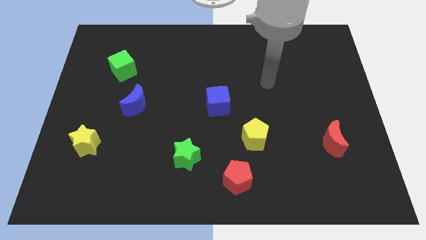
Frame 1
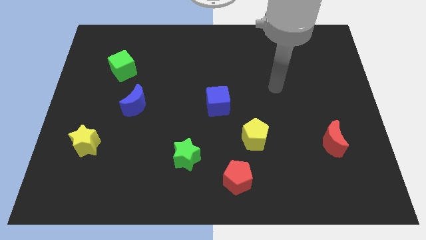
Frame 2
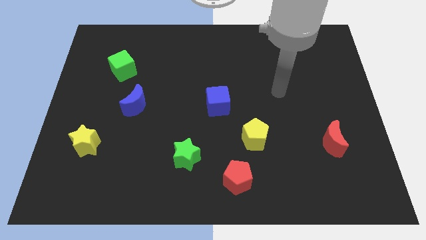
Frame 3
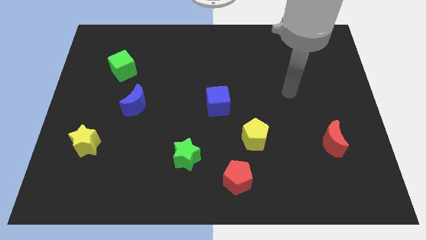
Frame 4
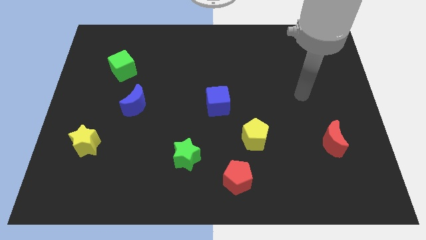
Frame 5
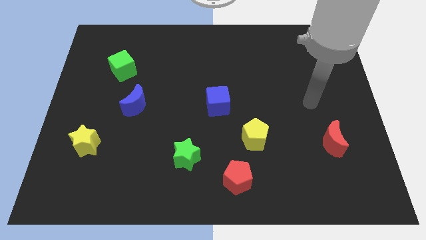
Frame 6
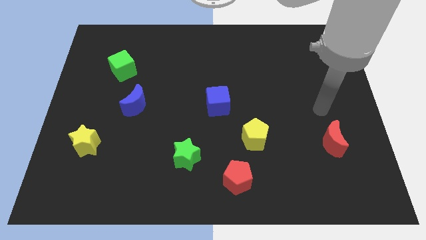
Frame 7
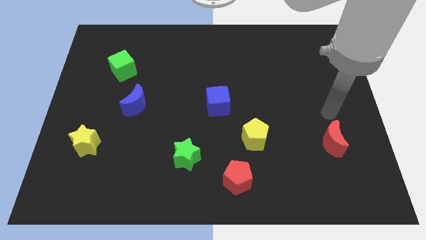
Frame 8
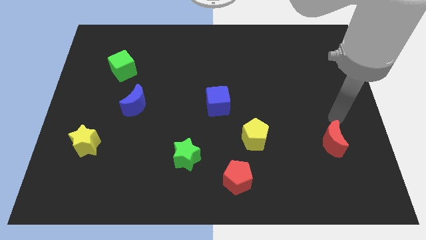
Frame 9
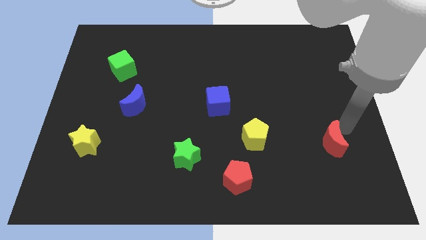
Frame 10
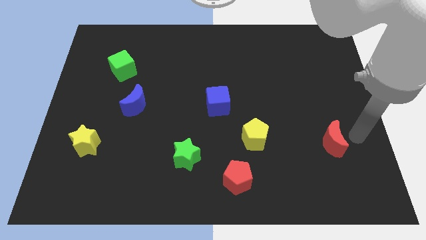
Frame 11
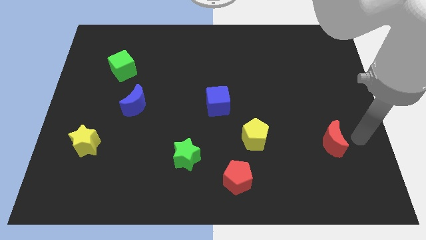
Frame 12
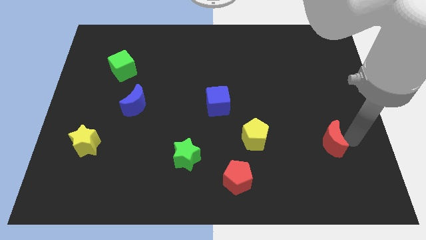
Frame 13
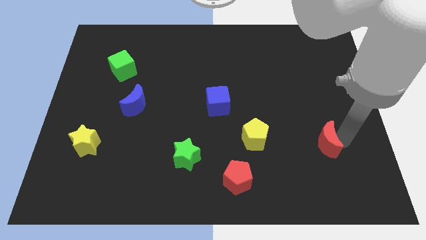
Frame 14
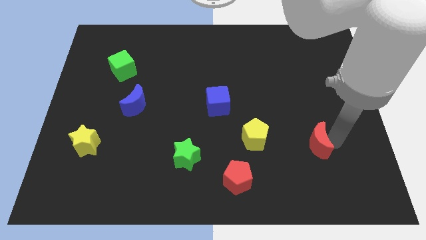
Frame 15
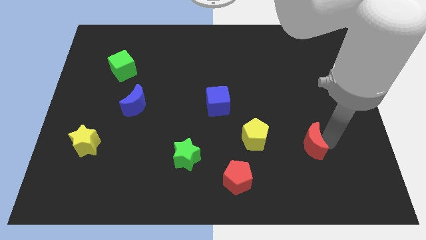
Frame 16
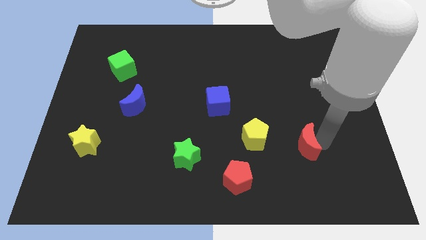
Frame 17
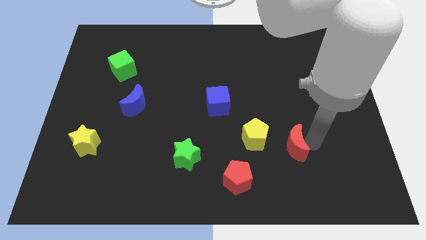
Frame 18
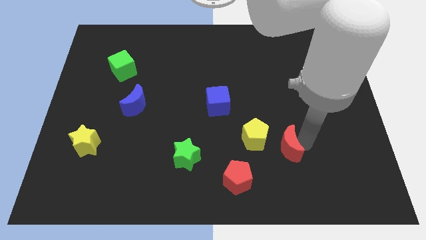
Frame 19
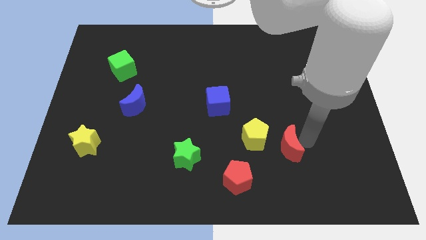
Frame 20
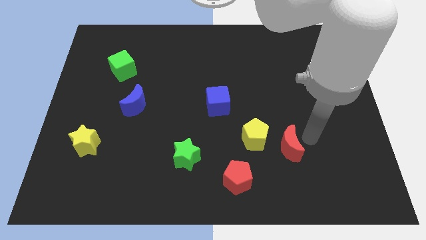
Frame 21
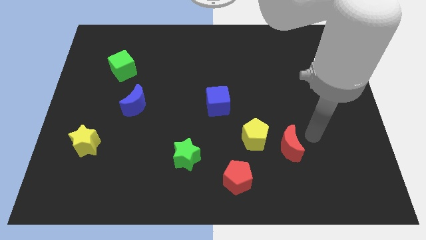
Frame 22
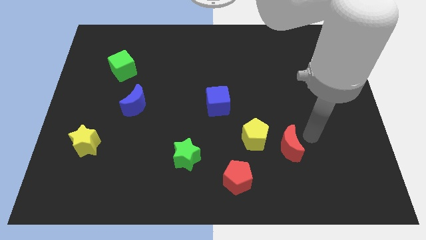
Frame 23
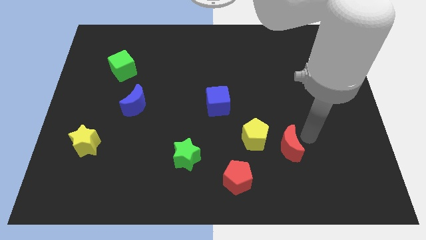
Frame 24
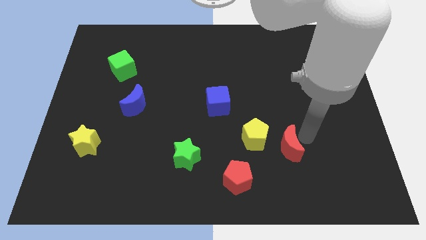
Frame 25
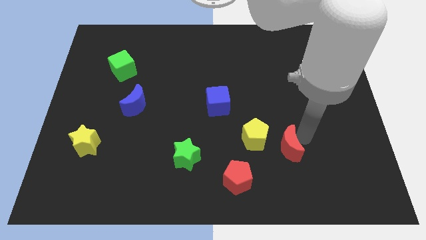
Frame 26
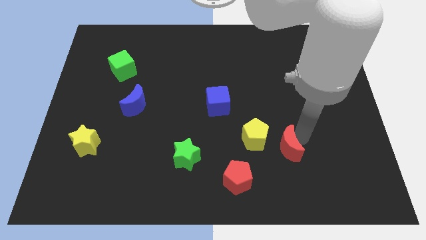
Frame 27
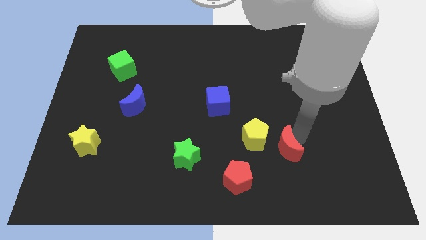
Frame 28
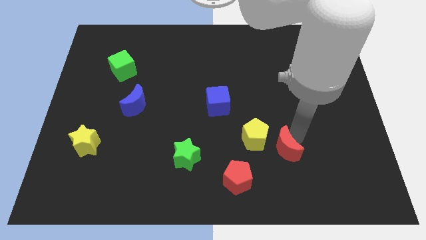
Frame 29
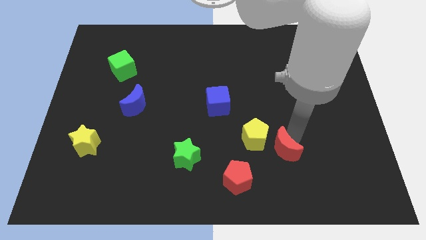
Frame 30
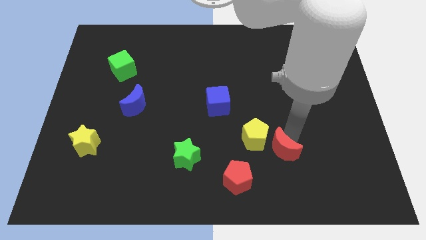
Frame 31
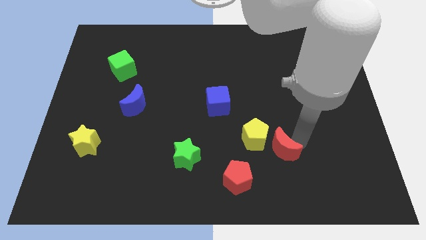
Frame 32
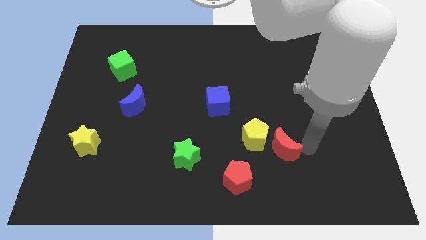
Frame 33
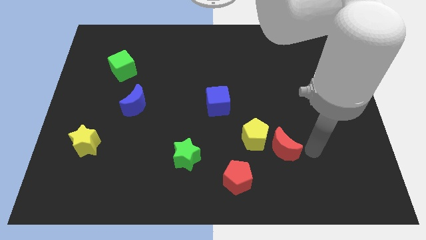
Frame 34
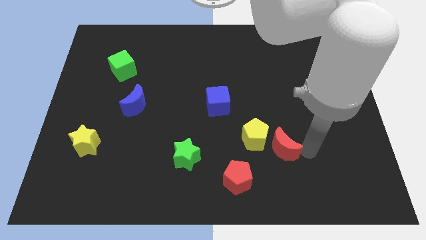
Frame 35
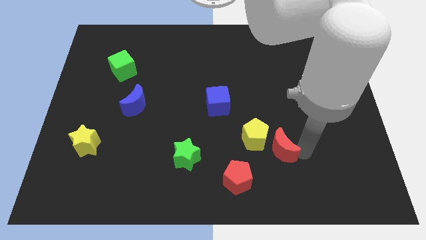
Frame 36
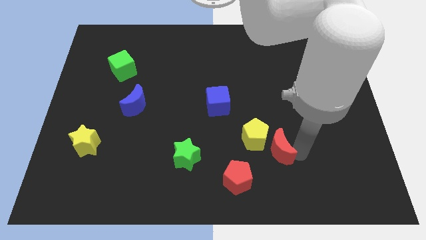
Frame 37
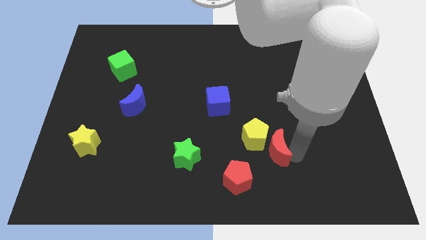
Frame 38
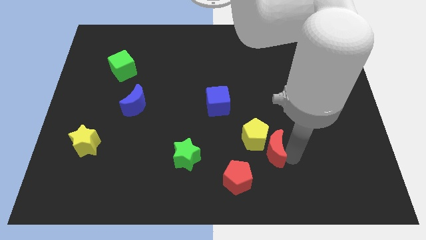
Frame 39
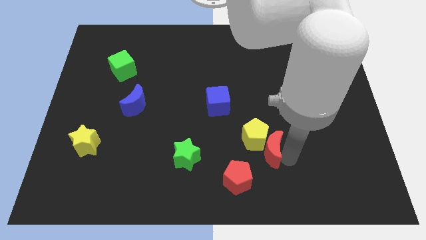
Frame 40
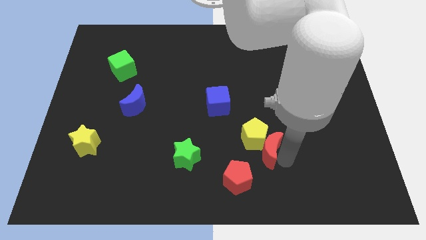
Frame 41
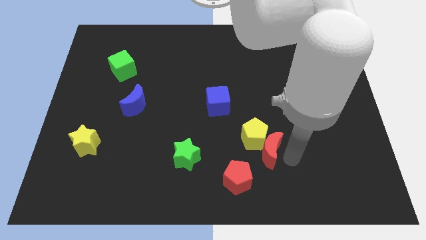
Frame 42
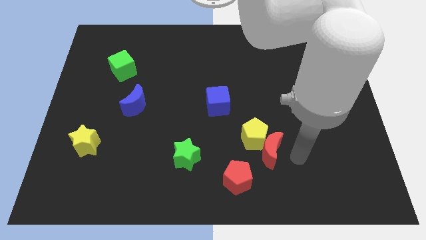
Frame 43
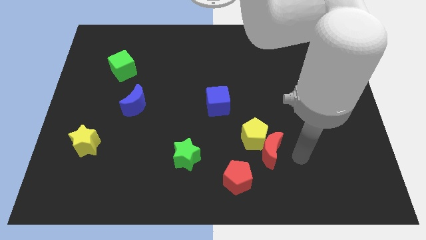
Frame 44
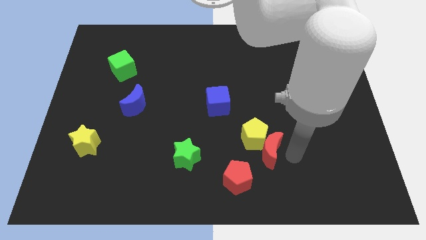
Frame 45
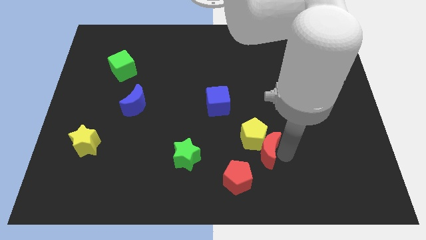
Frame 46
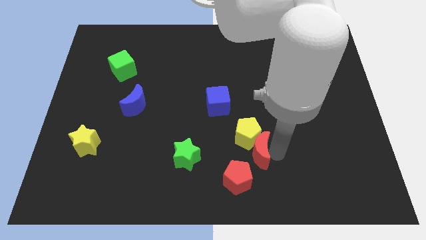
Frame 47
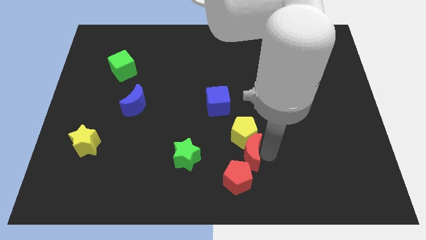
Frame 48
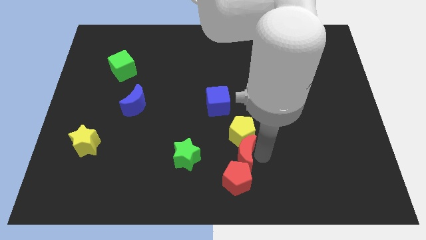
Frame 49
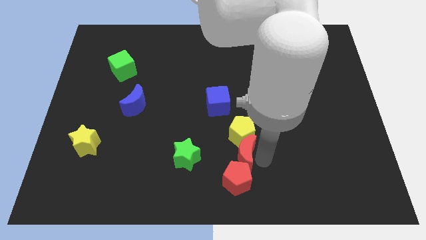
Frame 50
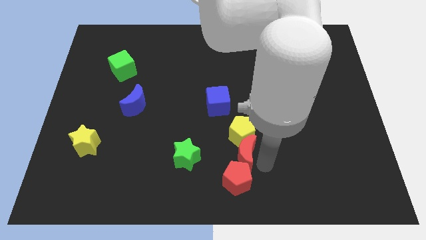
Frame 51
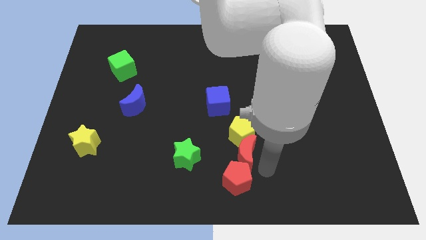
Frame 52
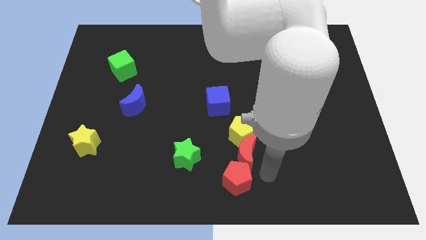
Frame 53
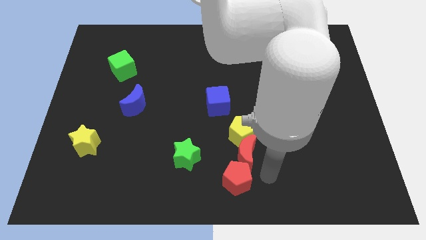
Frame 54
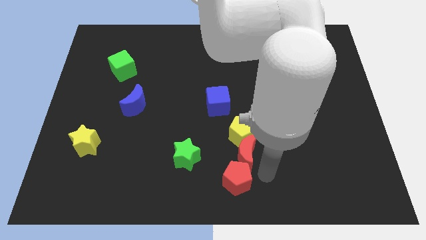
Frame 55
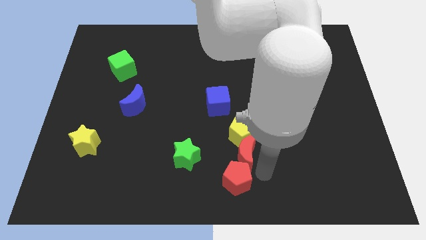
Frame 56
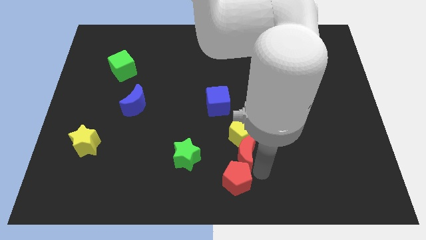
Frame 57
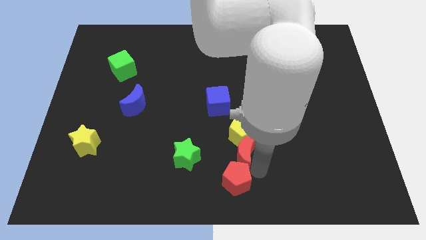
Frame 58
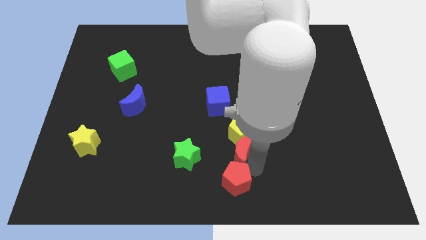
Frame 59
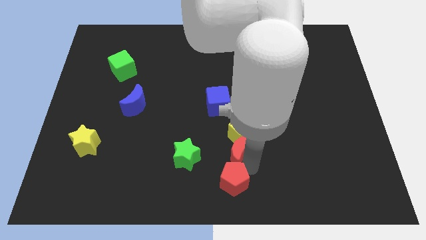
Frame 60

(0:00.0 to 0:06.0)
move the red moon left

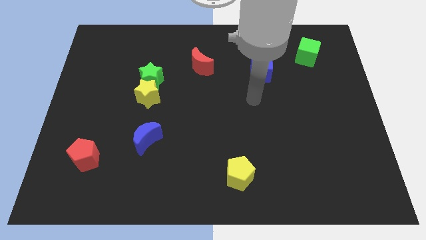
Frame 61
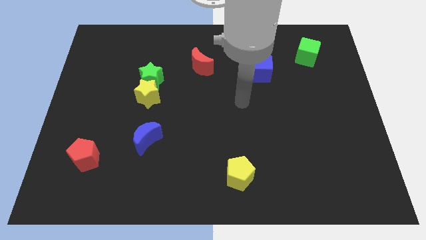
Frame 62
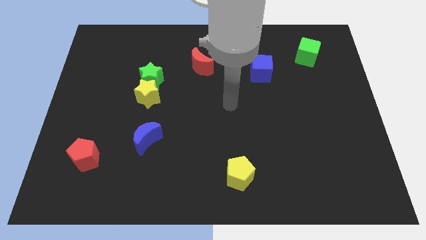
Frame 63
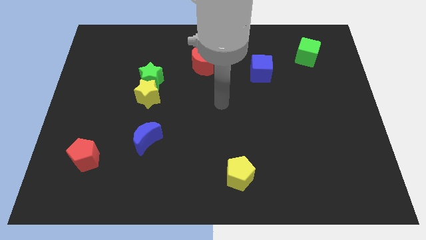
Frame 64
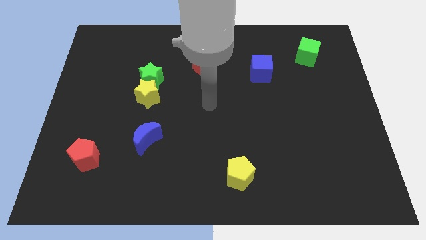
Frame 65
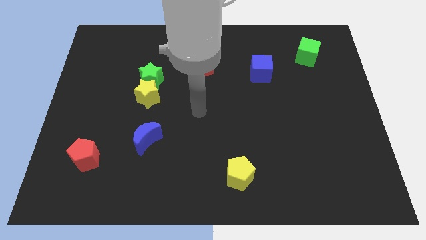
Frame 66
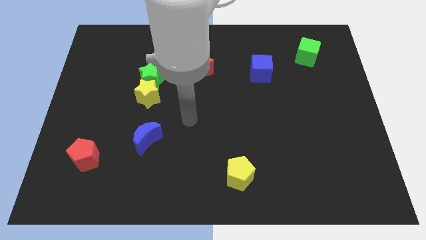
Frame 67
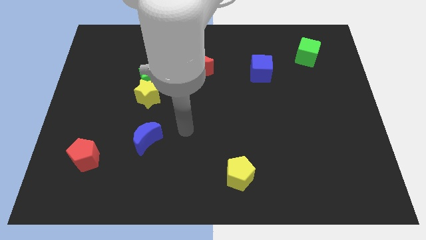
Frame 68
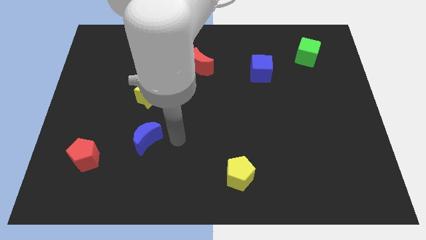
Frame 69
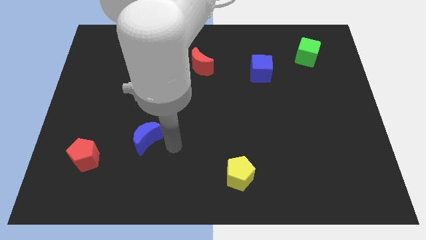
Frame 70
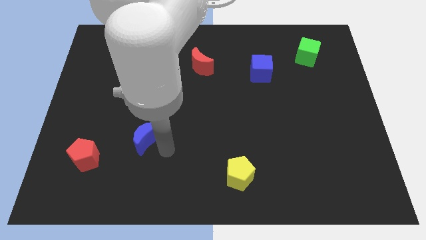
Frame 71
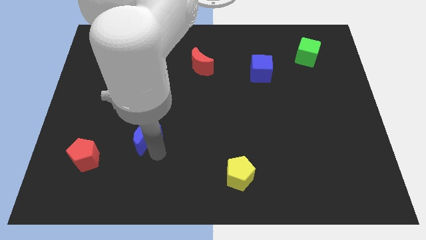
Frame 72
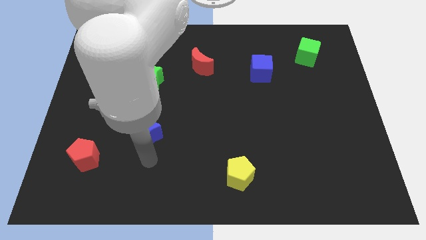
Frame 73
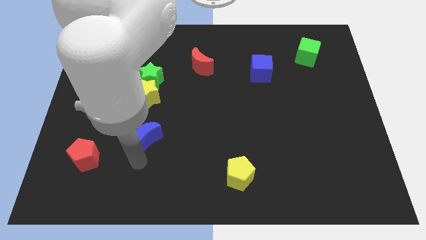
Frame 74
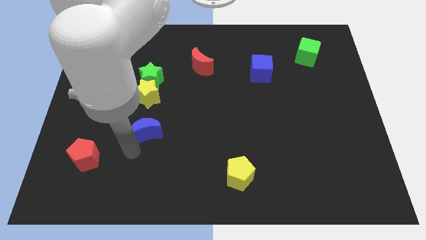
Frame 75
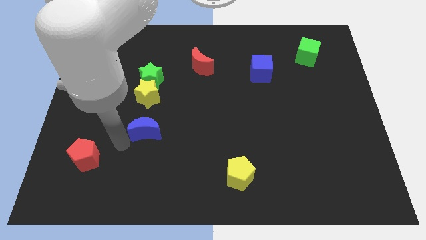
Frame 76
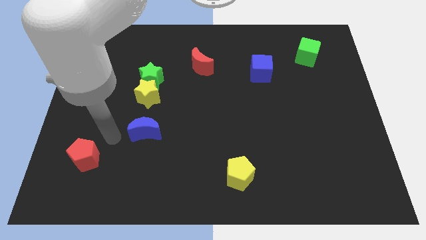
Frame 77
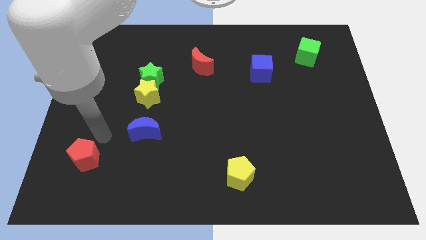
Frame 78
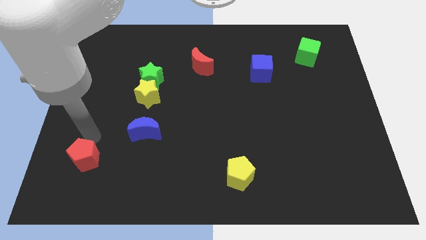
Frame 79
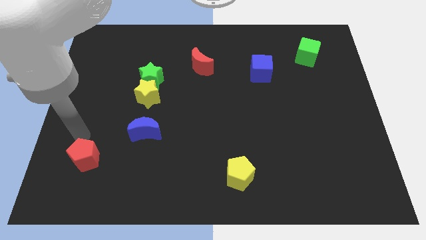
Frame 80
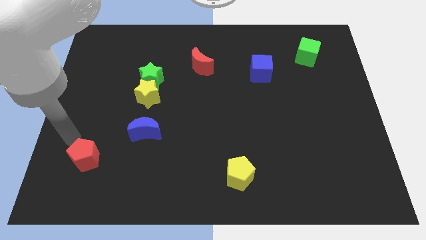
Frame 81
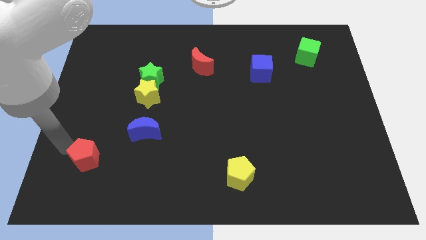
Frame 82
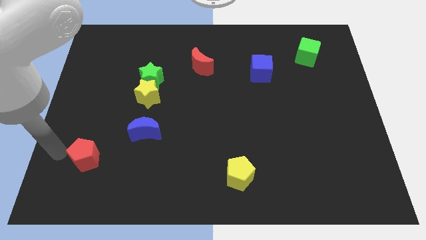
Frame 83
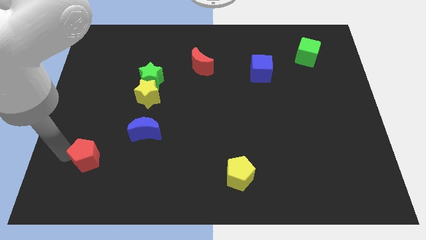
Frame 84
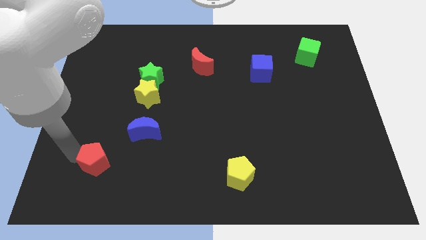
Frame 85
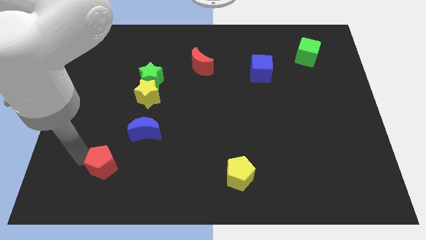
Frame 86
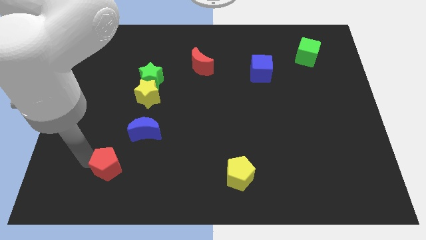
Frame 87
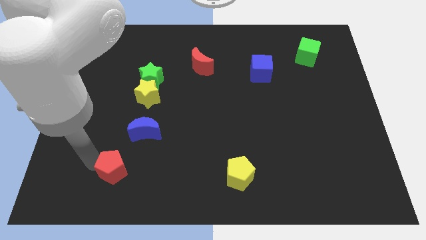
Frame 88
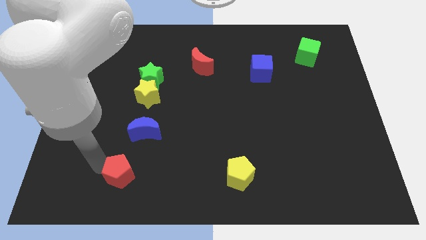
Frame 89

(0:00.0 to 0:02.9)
move the red pentagon a little bit to the right
